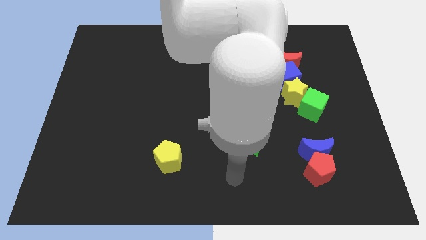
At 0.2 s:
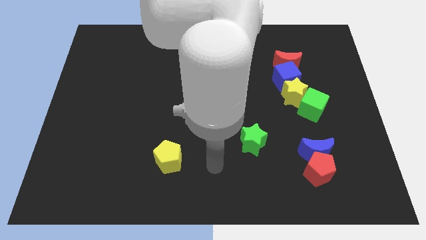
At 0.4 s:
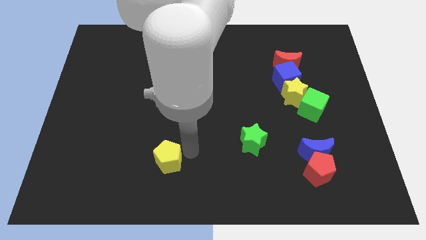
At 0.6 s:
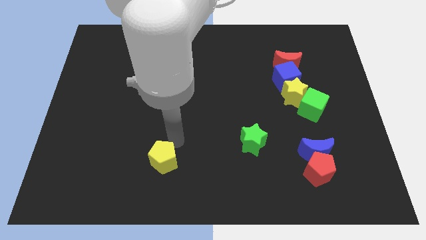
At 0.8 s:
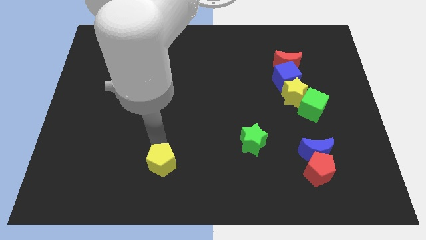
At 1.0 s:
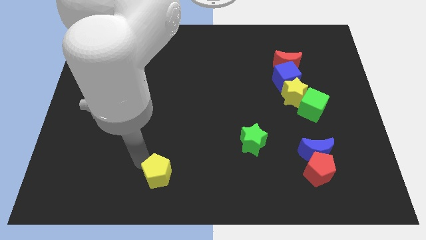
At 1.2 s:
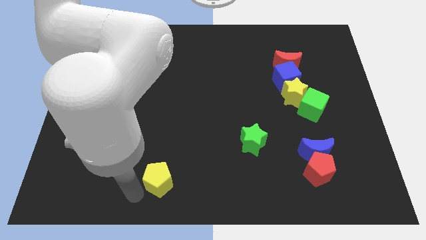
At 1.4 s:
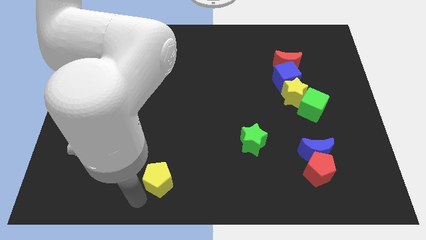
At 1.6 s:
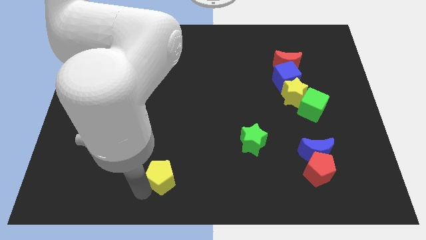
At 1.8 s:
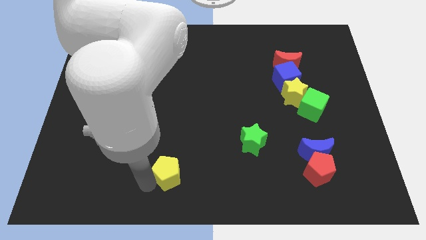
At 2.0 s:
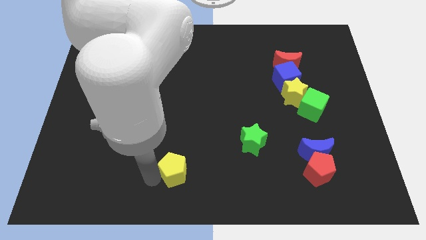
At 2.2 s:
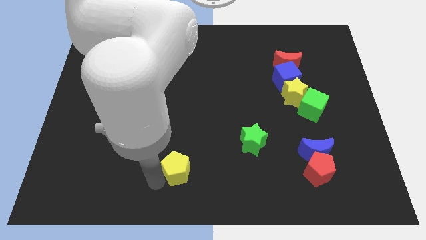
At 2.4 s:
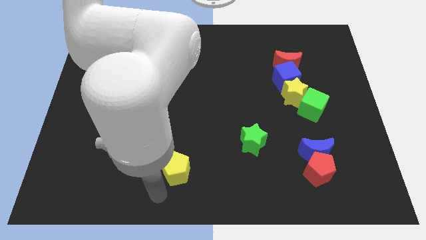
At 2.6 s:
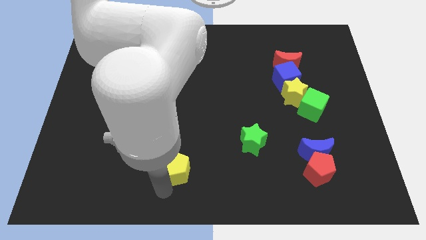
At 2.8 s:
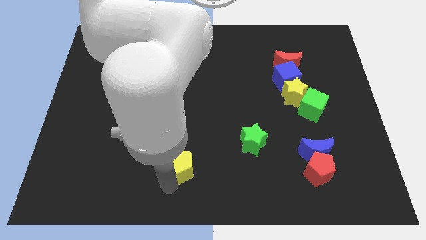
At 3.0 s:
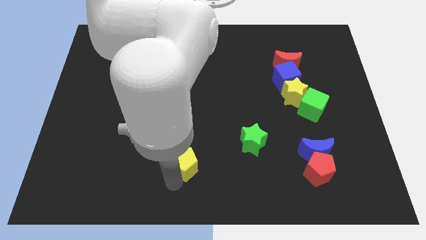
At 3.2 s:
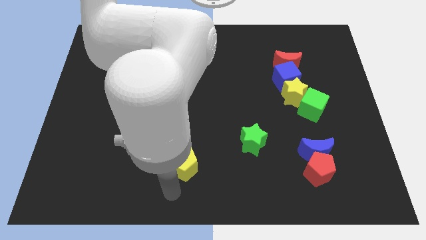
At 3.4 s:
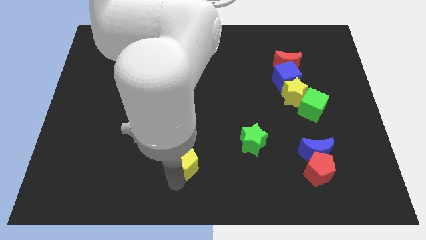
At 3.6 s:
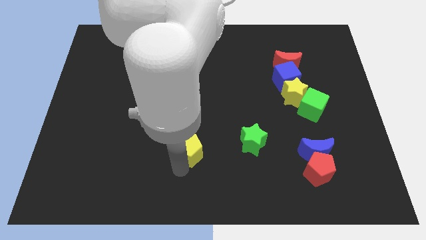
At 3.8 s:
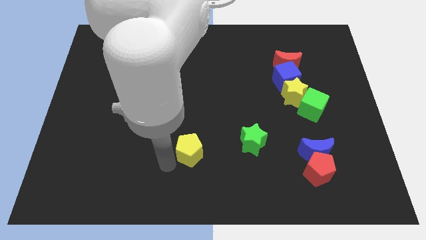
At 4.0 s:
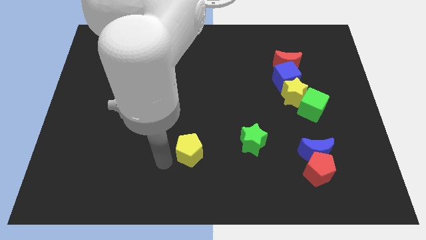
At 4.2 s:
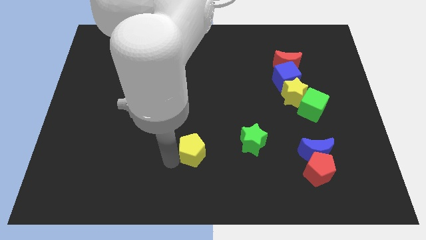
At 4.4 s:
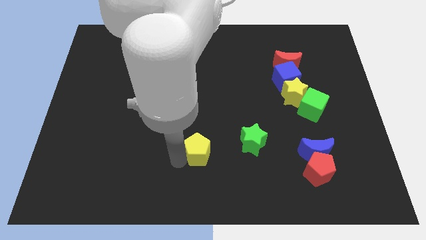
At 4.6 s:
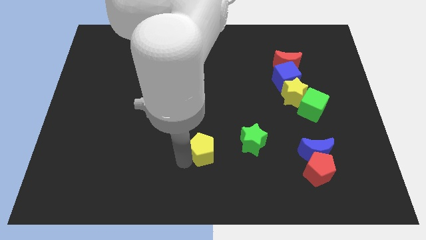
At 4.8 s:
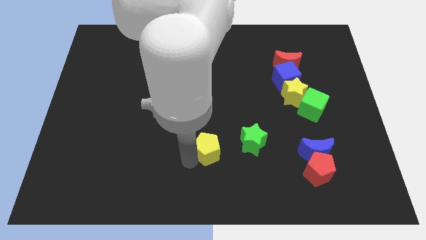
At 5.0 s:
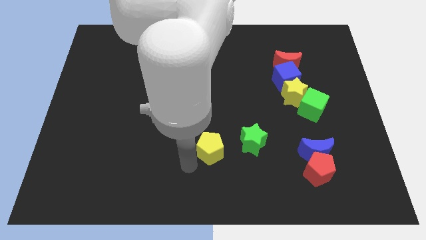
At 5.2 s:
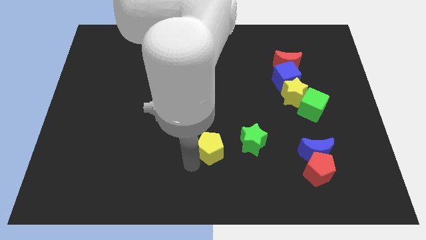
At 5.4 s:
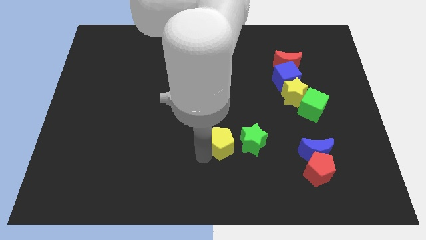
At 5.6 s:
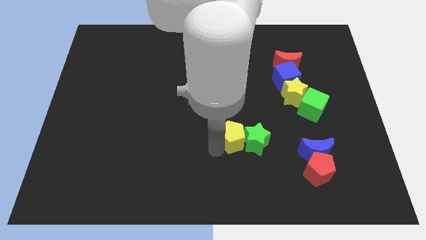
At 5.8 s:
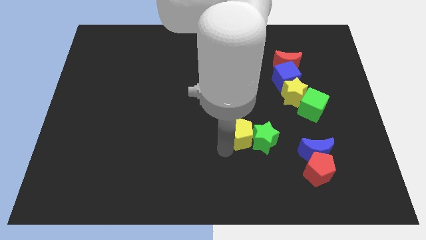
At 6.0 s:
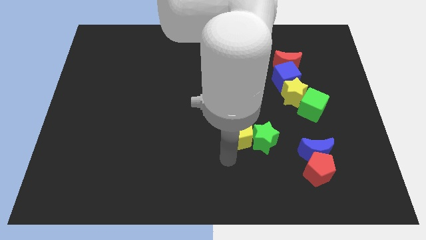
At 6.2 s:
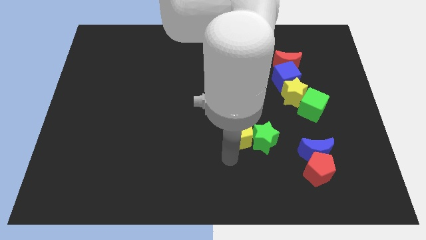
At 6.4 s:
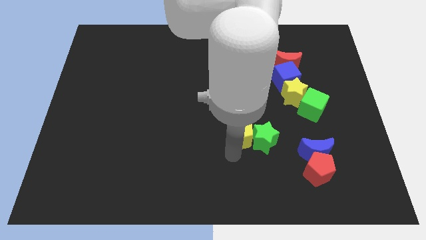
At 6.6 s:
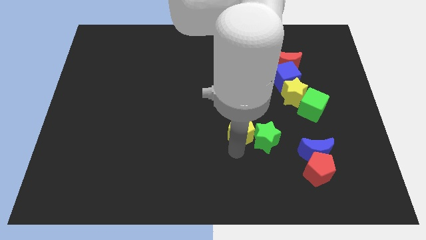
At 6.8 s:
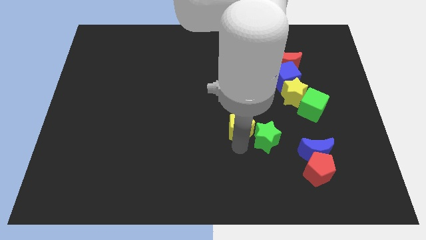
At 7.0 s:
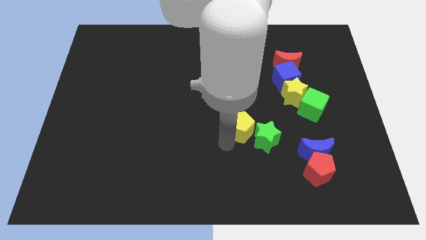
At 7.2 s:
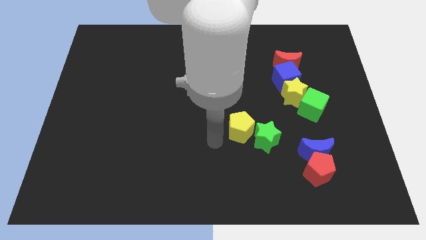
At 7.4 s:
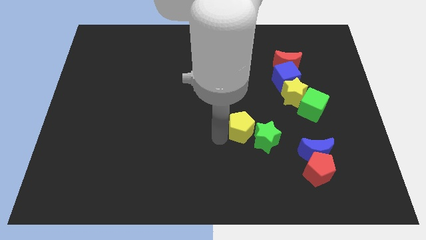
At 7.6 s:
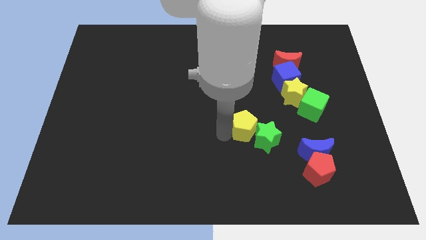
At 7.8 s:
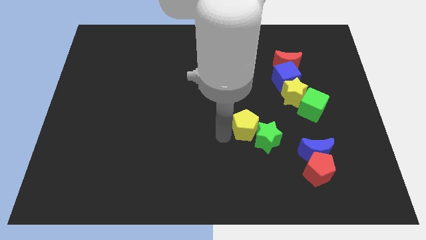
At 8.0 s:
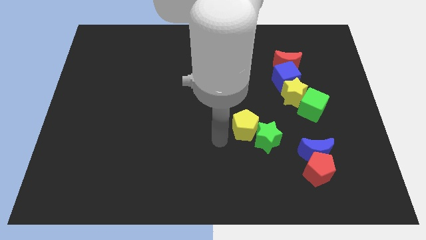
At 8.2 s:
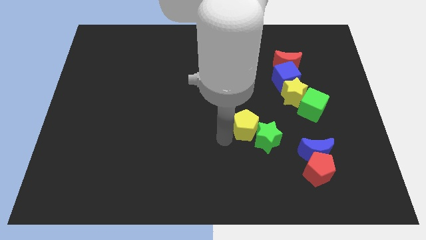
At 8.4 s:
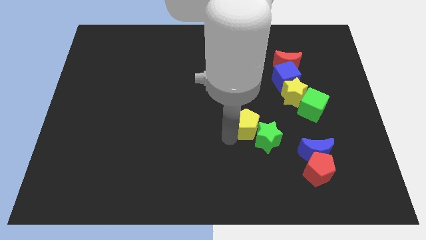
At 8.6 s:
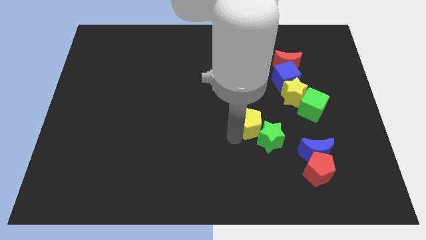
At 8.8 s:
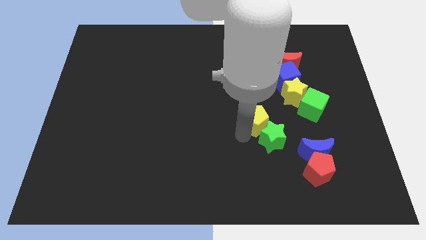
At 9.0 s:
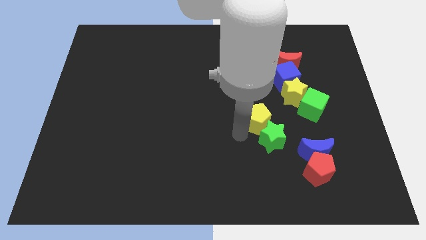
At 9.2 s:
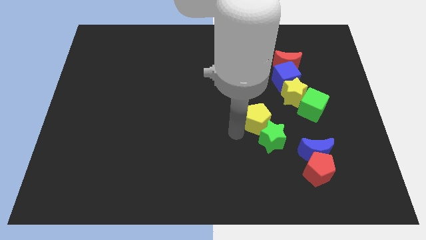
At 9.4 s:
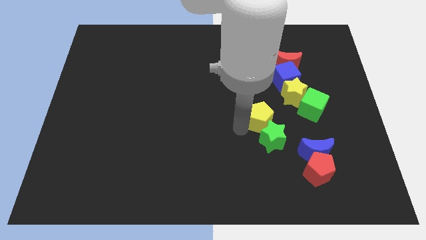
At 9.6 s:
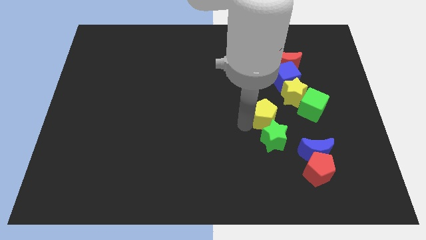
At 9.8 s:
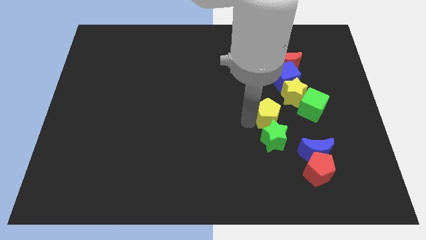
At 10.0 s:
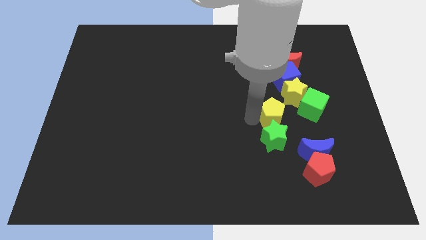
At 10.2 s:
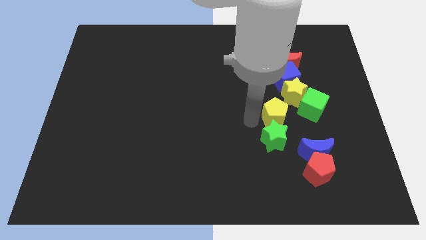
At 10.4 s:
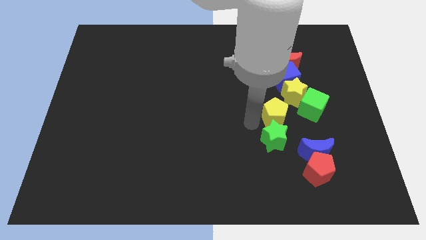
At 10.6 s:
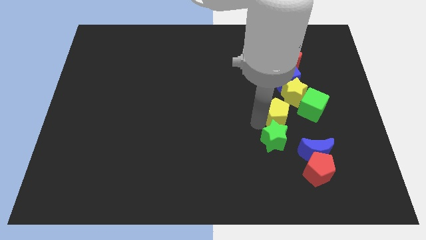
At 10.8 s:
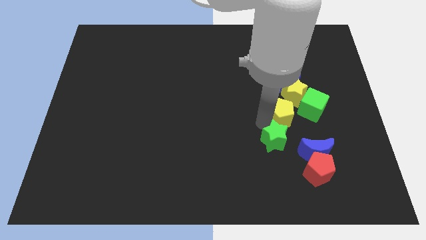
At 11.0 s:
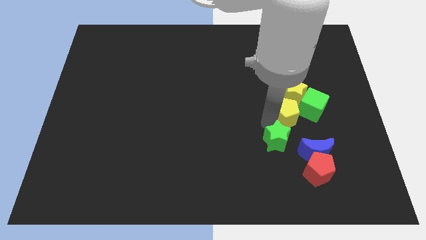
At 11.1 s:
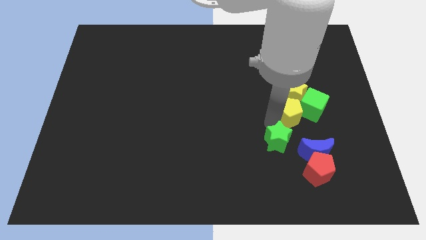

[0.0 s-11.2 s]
move the yellow pentagon to the green cube

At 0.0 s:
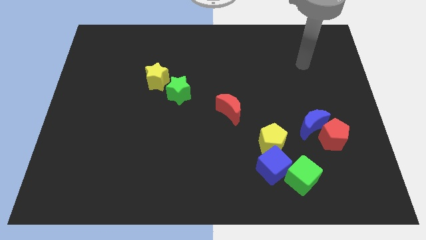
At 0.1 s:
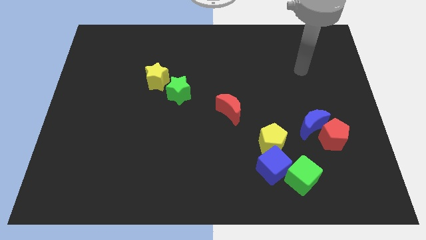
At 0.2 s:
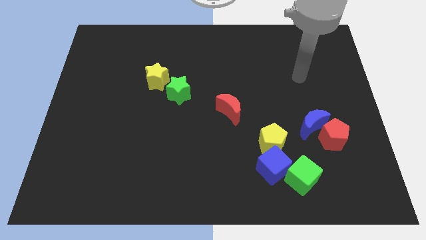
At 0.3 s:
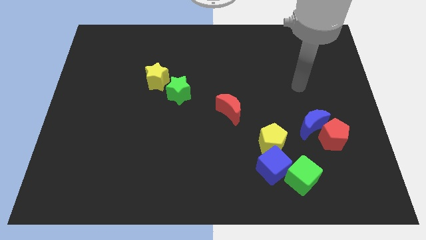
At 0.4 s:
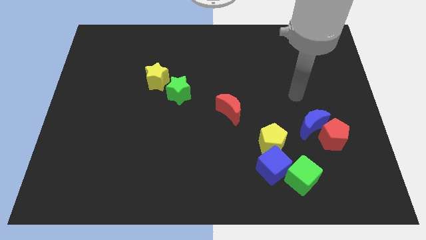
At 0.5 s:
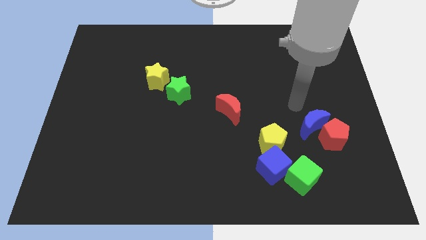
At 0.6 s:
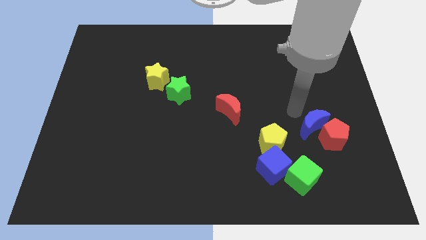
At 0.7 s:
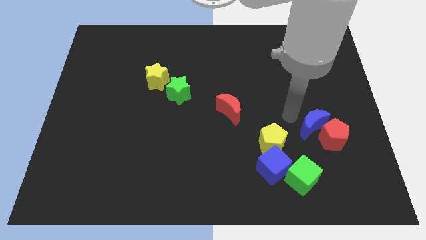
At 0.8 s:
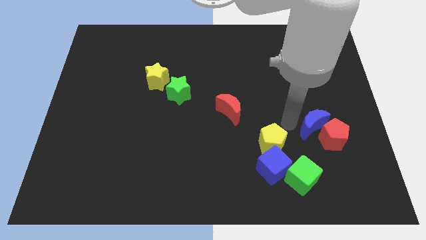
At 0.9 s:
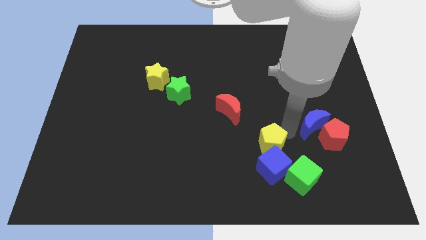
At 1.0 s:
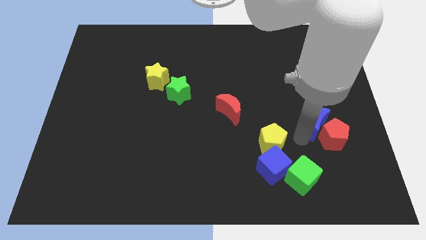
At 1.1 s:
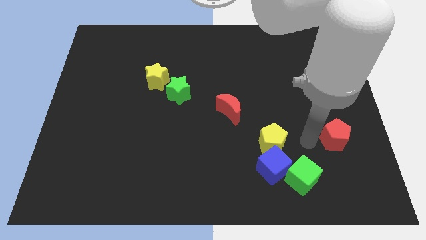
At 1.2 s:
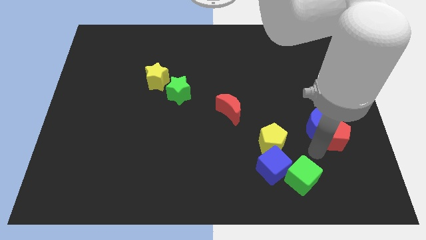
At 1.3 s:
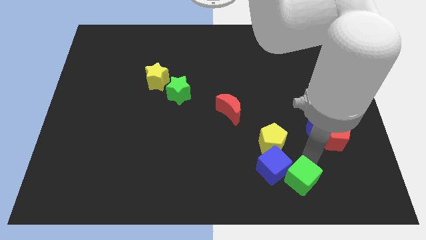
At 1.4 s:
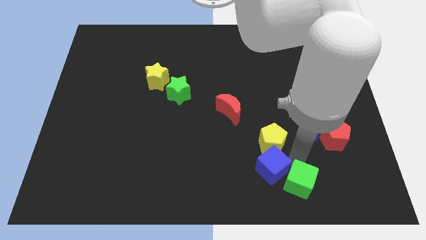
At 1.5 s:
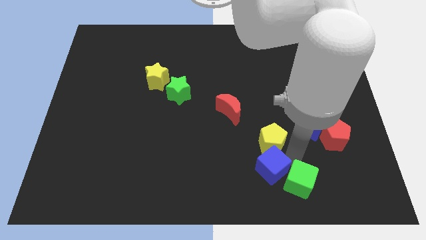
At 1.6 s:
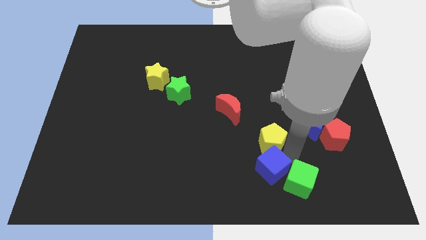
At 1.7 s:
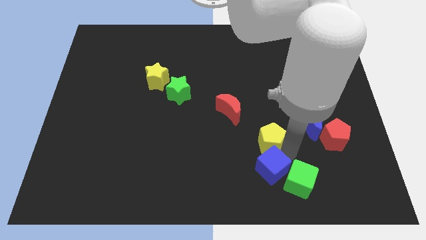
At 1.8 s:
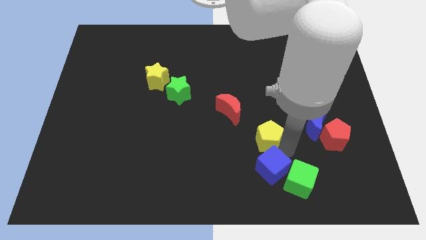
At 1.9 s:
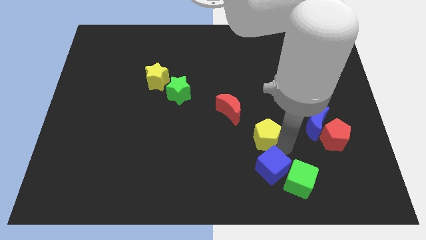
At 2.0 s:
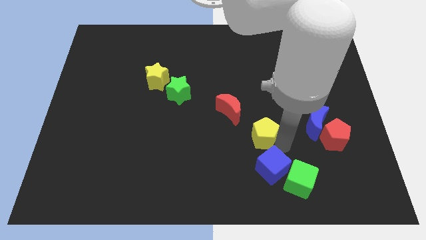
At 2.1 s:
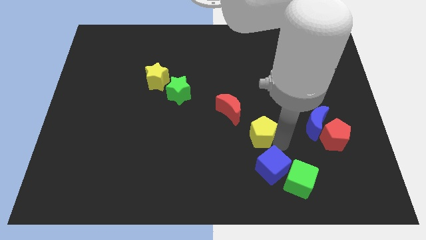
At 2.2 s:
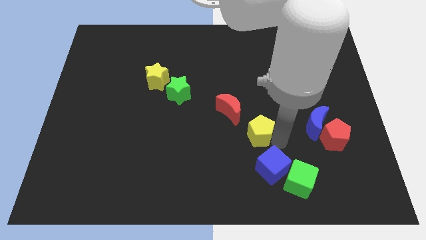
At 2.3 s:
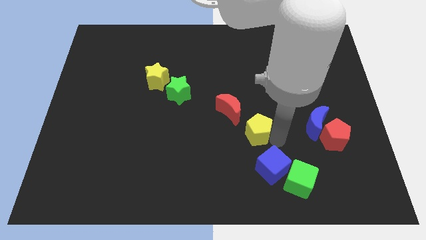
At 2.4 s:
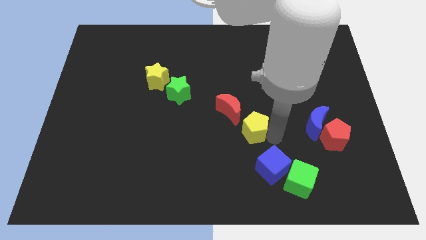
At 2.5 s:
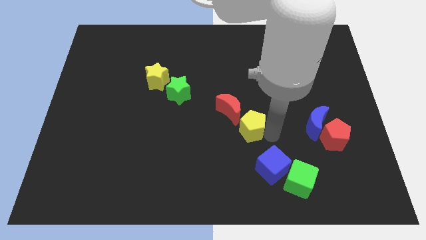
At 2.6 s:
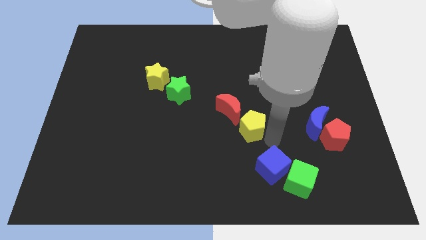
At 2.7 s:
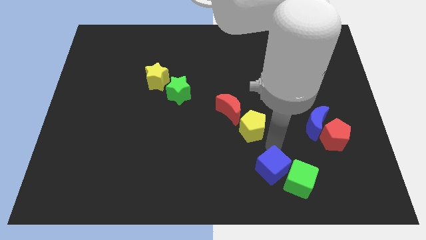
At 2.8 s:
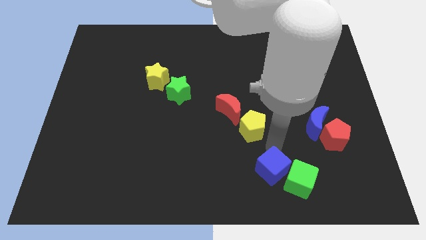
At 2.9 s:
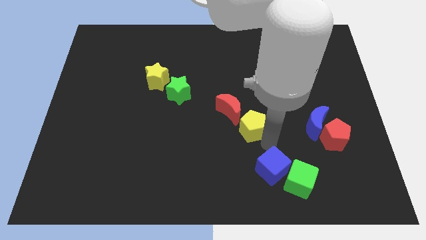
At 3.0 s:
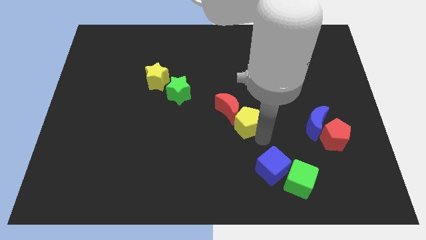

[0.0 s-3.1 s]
slide the yellow pentagon next to the red moon
